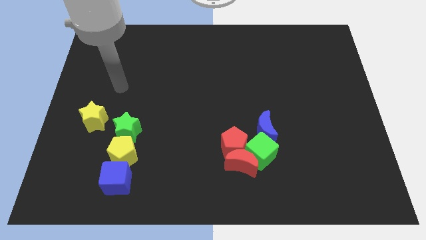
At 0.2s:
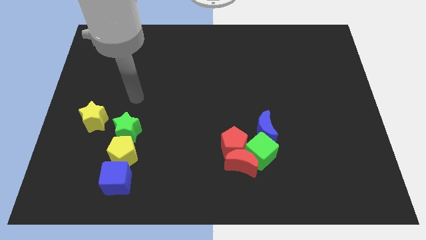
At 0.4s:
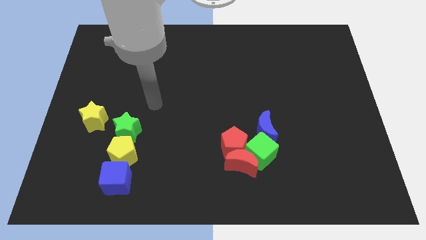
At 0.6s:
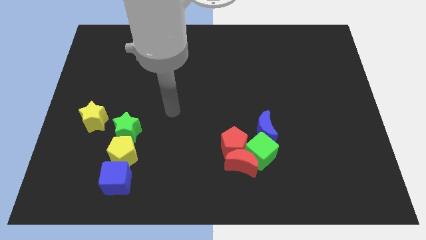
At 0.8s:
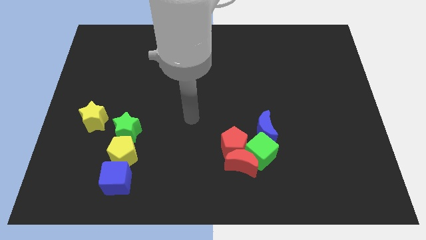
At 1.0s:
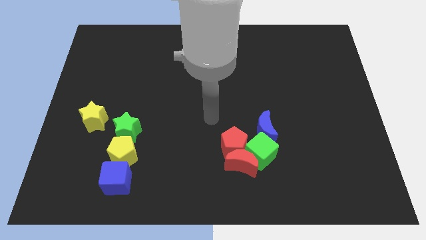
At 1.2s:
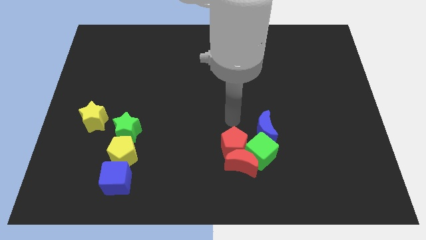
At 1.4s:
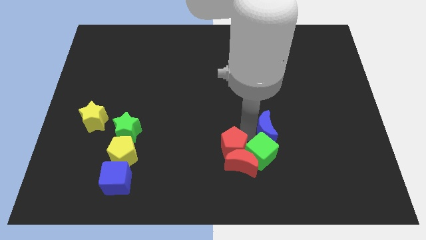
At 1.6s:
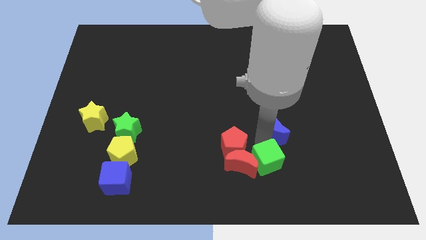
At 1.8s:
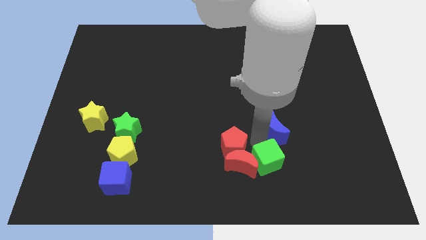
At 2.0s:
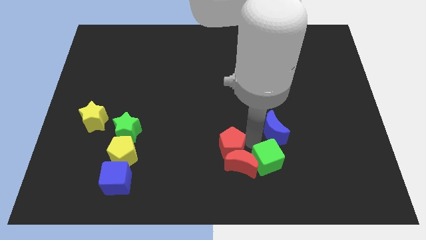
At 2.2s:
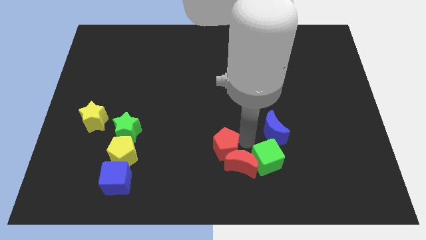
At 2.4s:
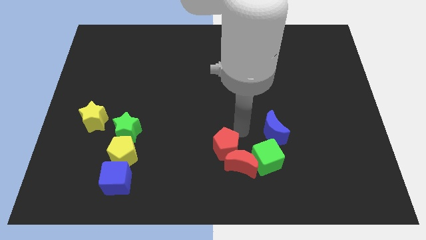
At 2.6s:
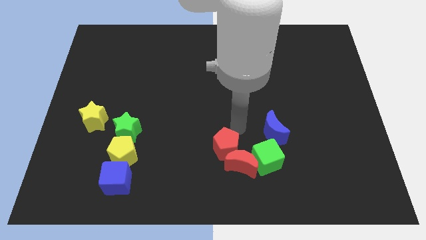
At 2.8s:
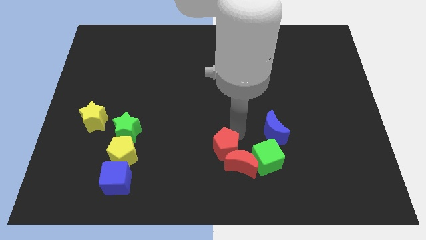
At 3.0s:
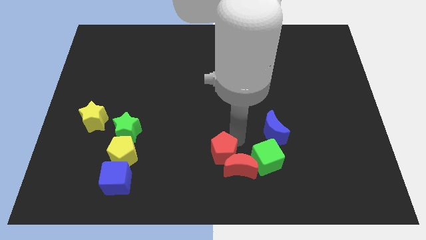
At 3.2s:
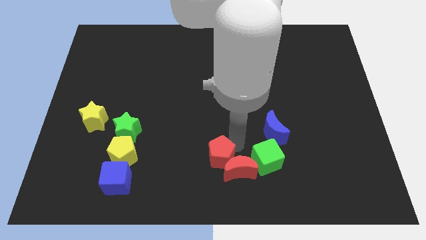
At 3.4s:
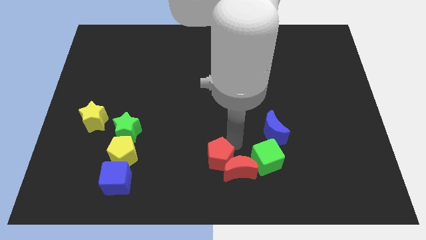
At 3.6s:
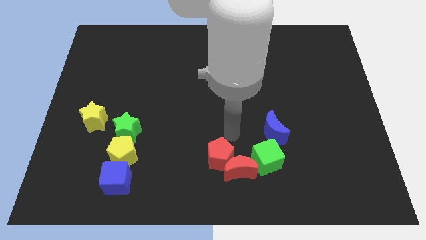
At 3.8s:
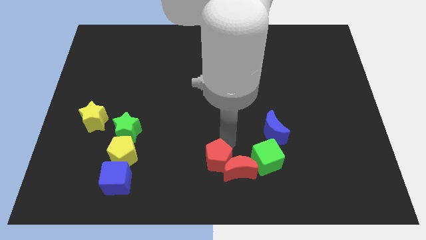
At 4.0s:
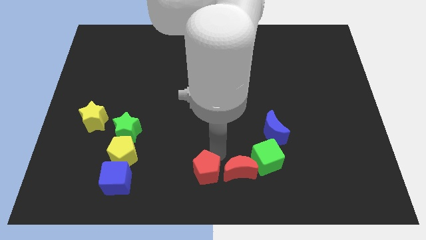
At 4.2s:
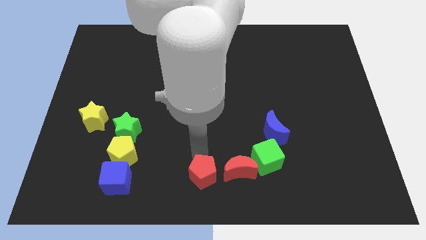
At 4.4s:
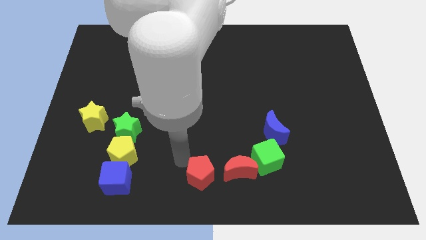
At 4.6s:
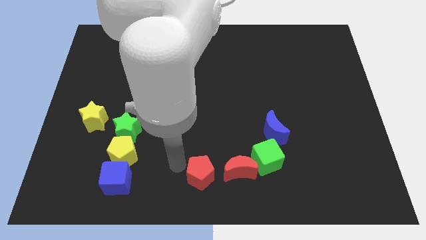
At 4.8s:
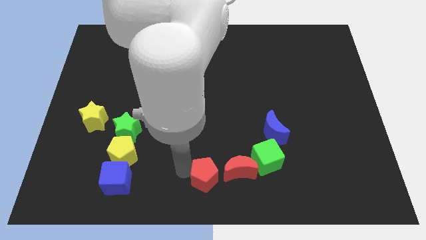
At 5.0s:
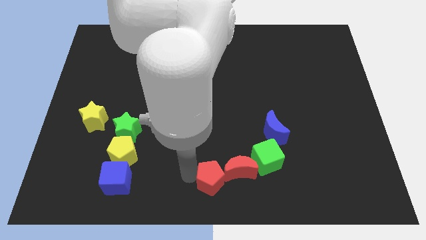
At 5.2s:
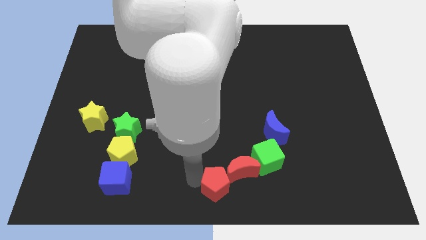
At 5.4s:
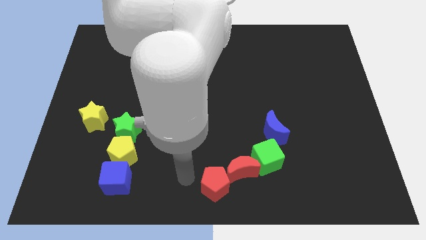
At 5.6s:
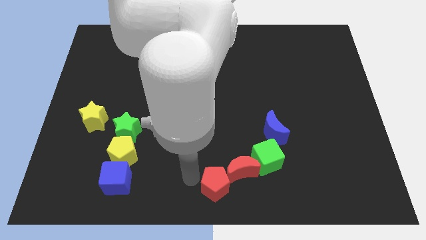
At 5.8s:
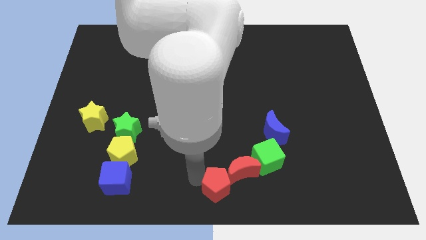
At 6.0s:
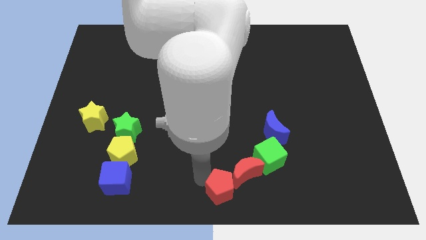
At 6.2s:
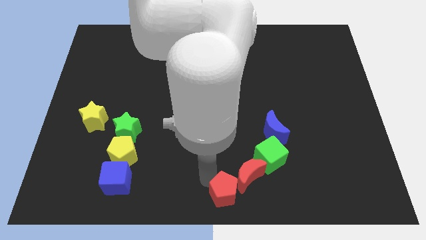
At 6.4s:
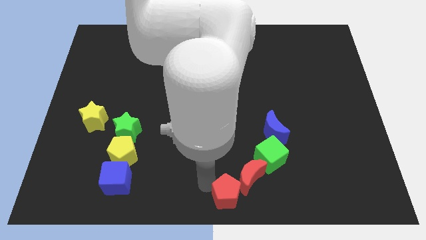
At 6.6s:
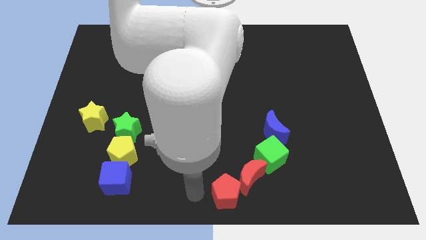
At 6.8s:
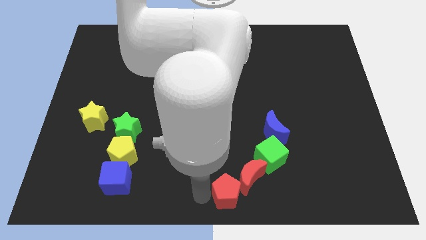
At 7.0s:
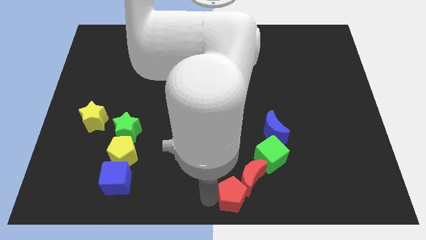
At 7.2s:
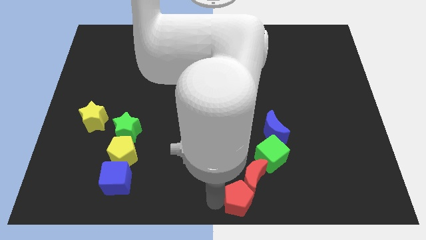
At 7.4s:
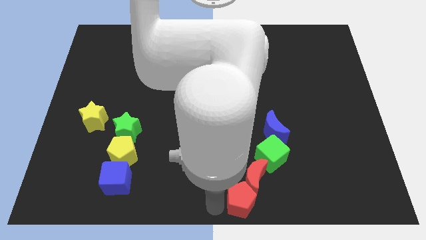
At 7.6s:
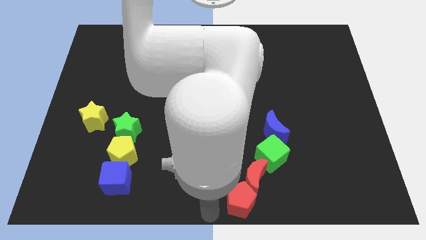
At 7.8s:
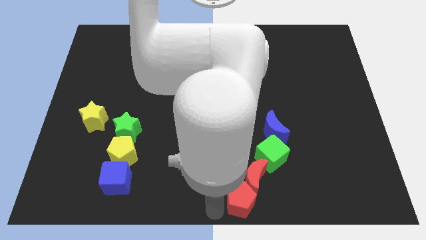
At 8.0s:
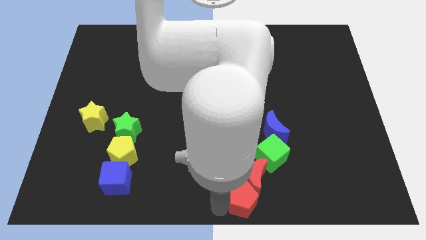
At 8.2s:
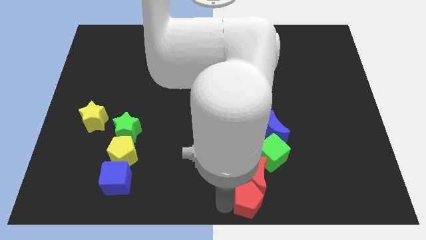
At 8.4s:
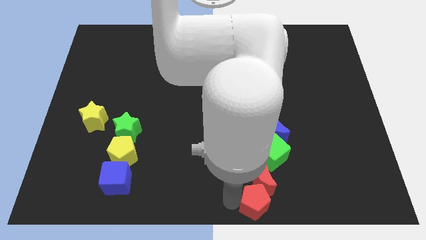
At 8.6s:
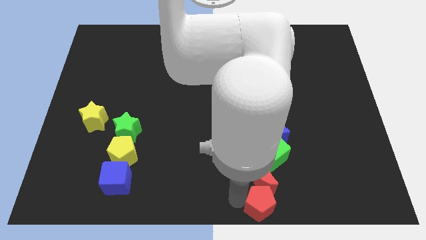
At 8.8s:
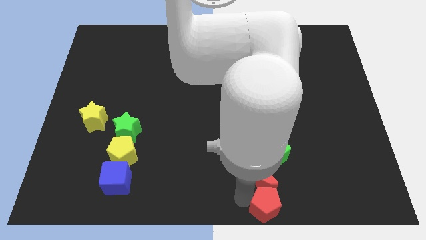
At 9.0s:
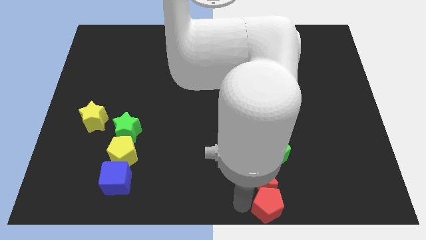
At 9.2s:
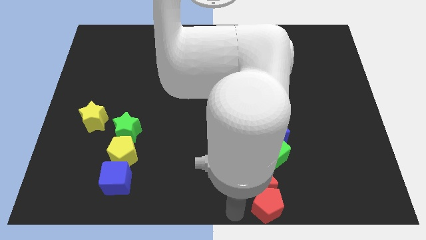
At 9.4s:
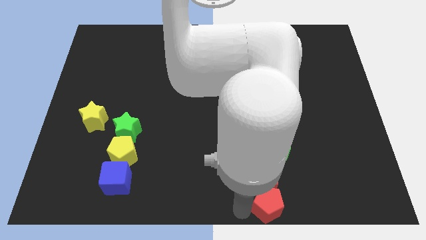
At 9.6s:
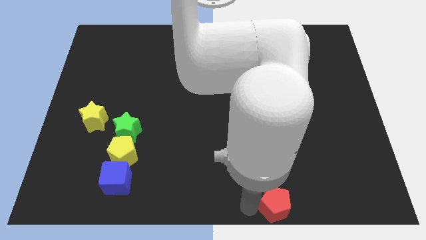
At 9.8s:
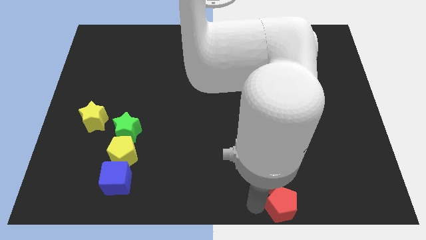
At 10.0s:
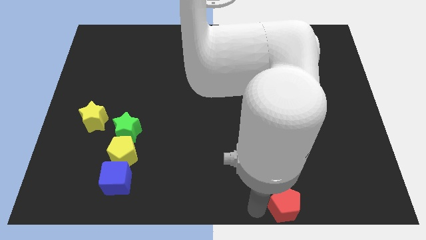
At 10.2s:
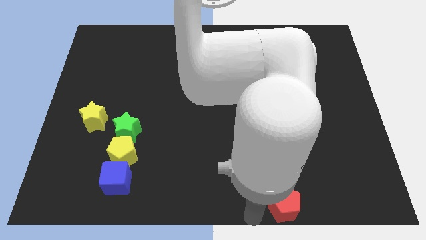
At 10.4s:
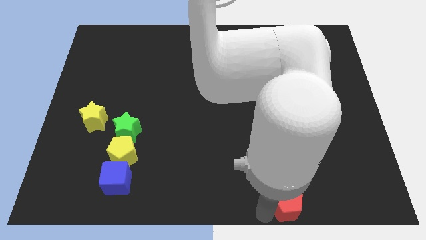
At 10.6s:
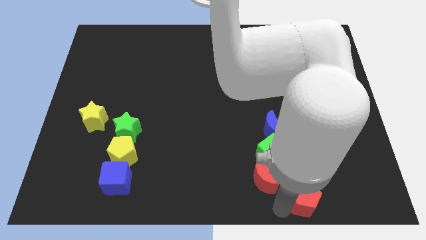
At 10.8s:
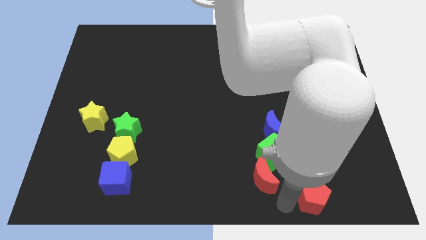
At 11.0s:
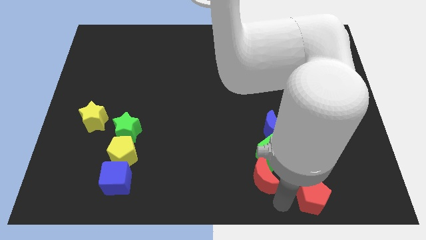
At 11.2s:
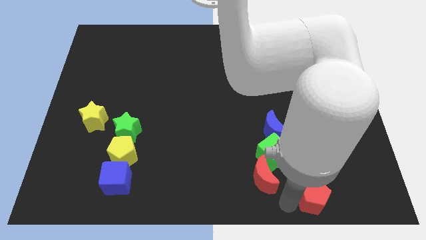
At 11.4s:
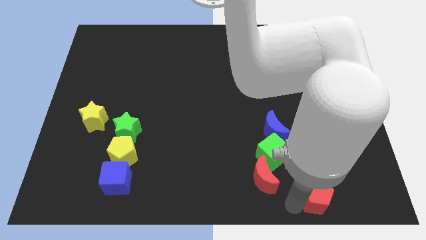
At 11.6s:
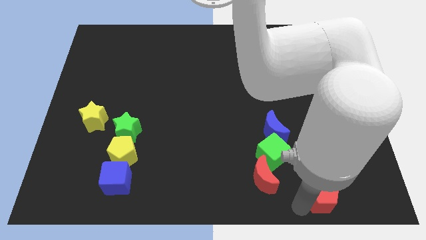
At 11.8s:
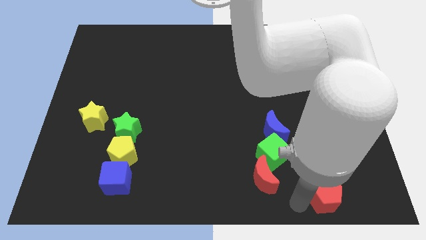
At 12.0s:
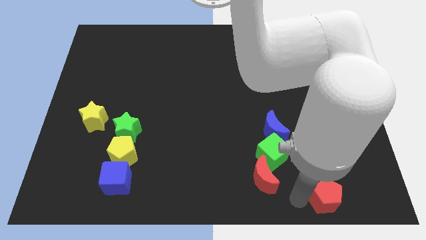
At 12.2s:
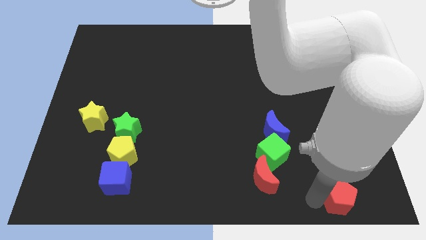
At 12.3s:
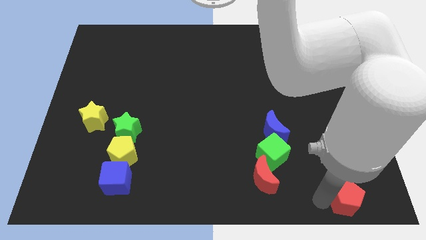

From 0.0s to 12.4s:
slide the red pentagon to the bottom right corner
